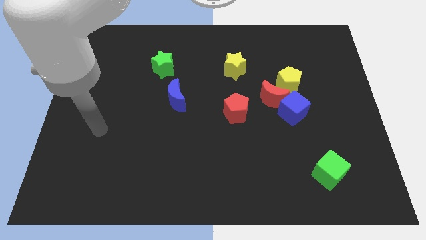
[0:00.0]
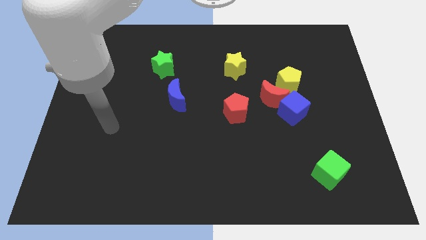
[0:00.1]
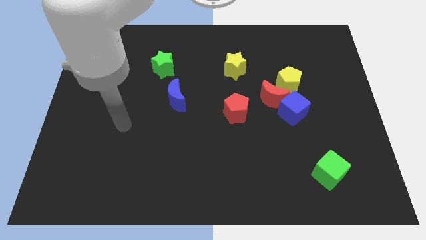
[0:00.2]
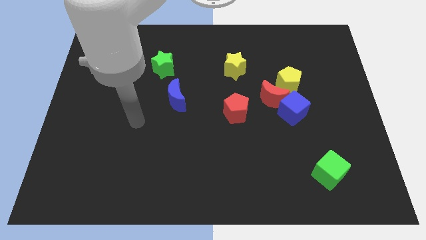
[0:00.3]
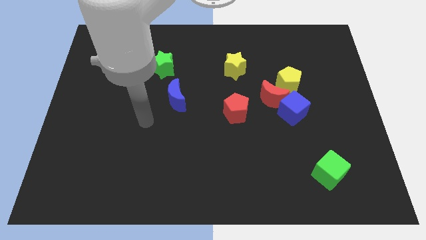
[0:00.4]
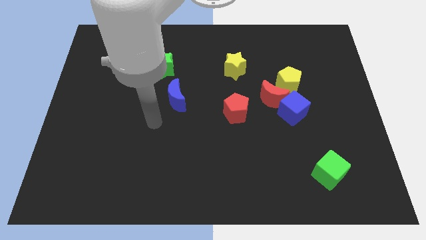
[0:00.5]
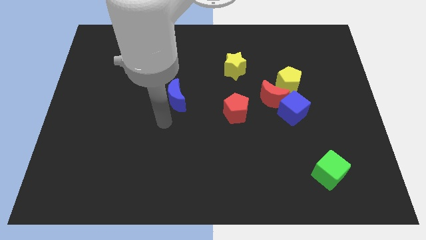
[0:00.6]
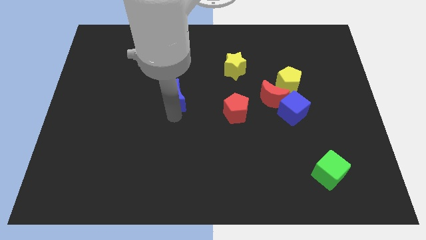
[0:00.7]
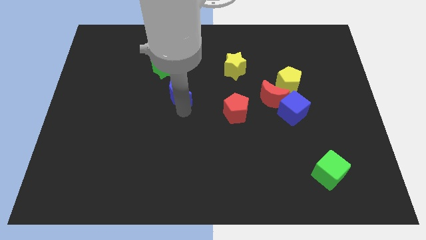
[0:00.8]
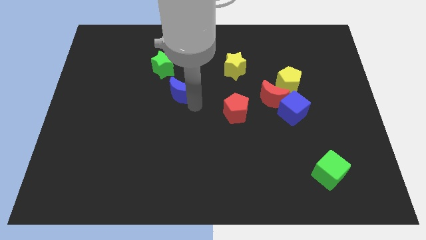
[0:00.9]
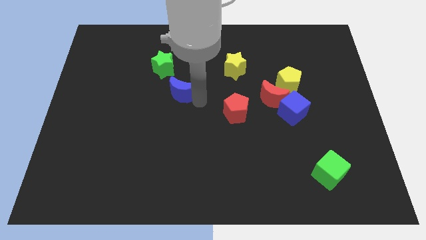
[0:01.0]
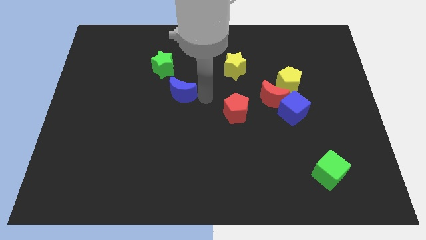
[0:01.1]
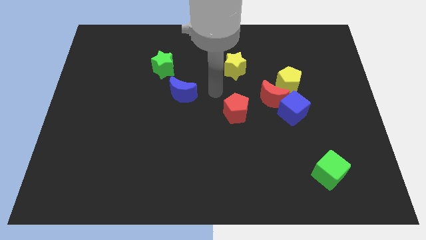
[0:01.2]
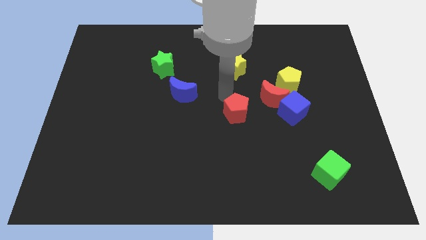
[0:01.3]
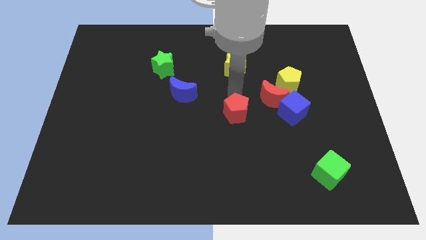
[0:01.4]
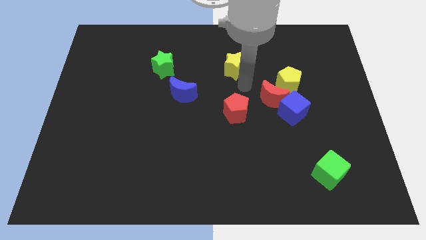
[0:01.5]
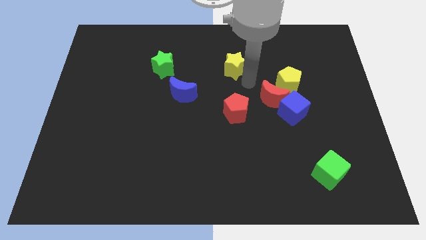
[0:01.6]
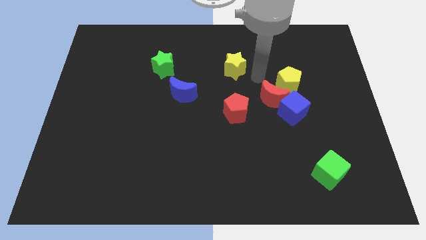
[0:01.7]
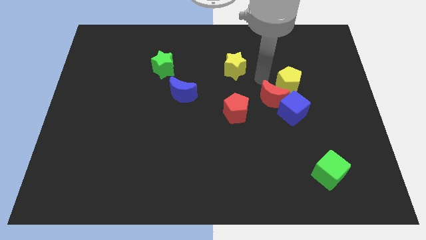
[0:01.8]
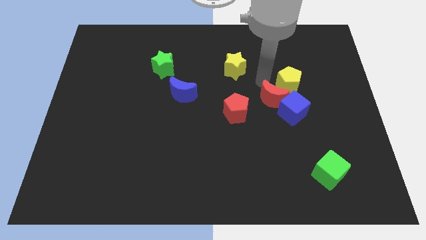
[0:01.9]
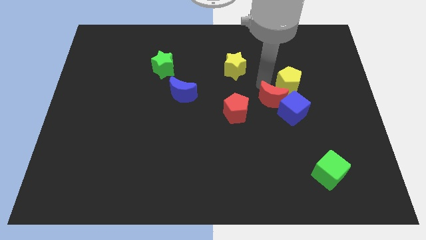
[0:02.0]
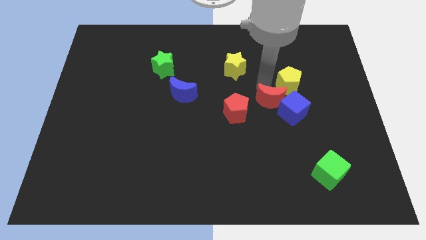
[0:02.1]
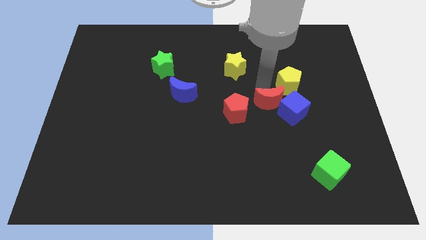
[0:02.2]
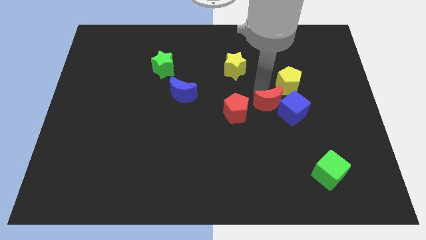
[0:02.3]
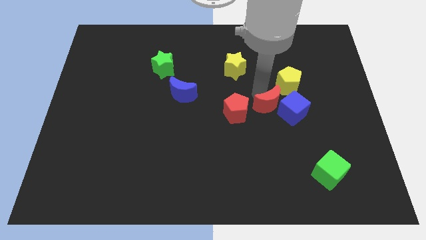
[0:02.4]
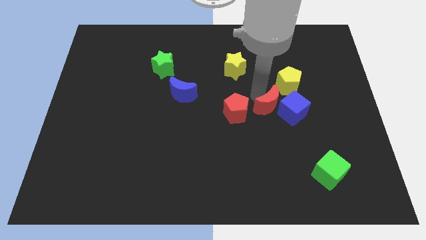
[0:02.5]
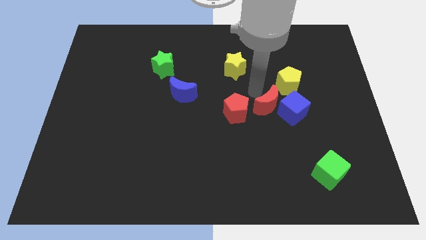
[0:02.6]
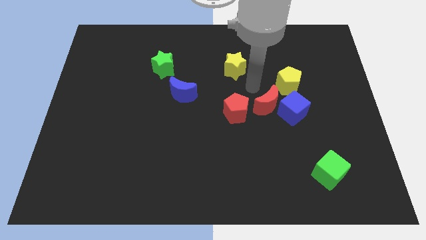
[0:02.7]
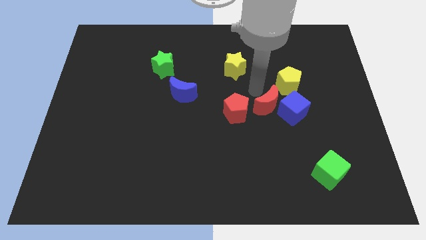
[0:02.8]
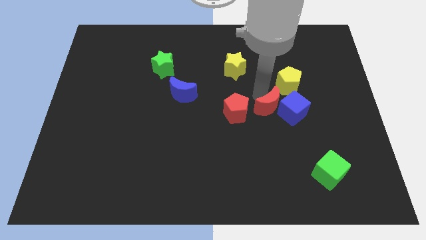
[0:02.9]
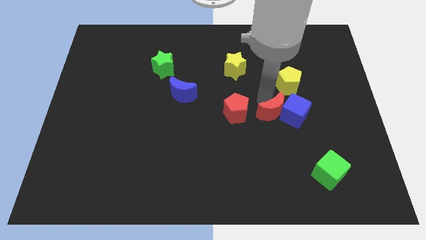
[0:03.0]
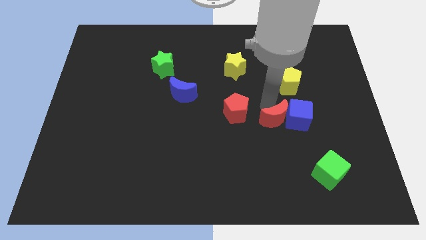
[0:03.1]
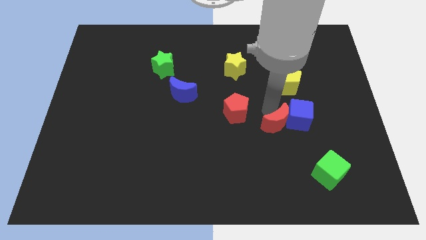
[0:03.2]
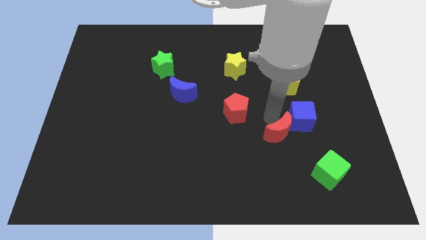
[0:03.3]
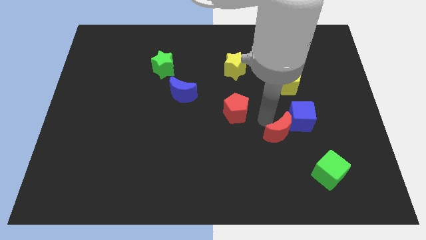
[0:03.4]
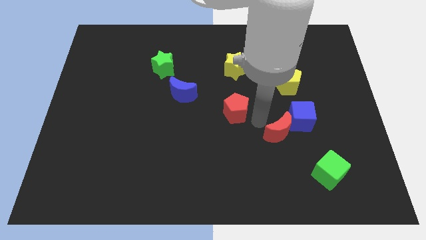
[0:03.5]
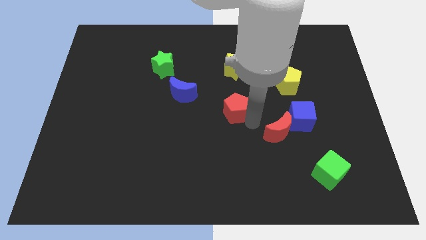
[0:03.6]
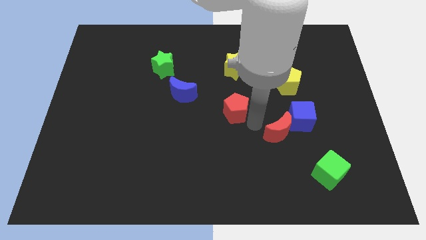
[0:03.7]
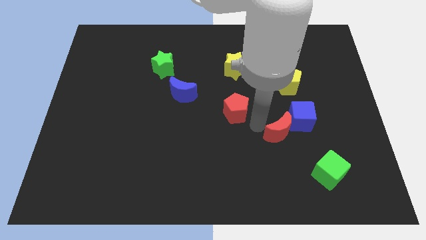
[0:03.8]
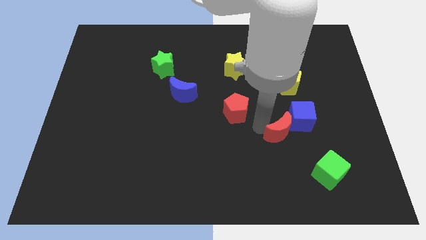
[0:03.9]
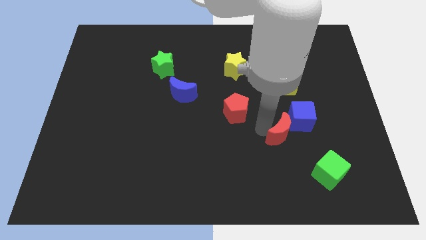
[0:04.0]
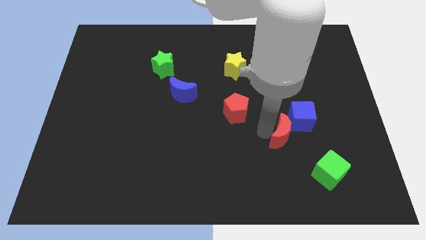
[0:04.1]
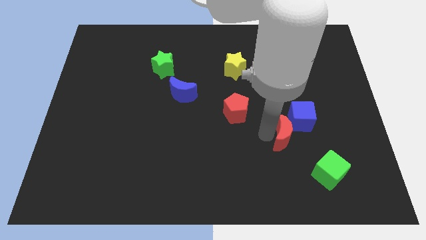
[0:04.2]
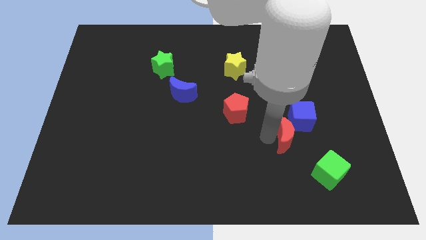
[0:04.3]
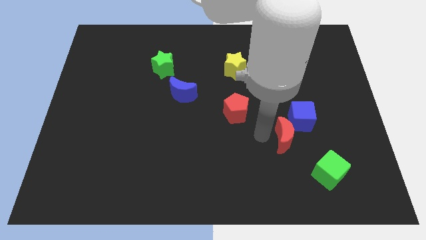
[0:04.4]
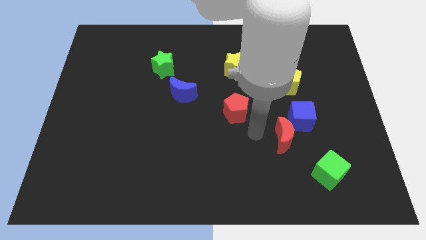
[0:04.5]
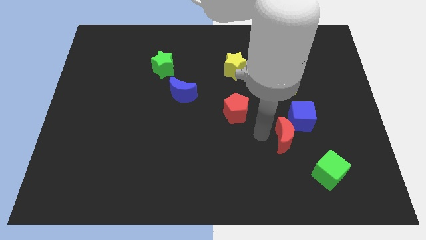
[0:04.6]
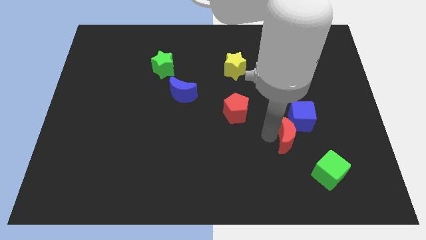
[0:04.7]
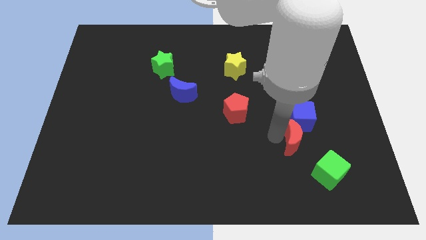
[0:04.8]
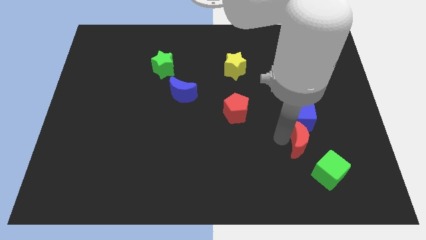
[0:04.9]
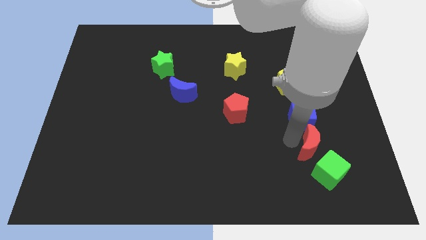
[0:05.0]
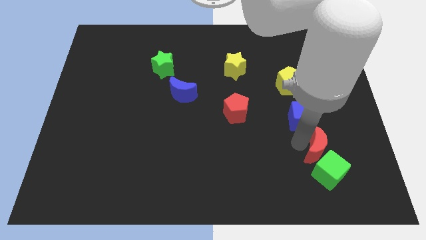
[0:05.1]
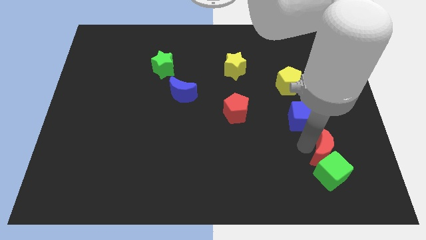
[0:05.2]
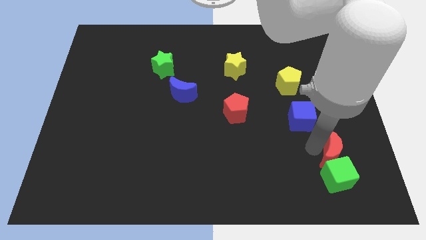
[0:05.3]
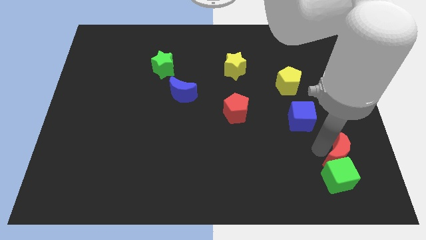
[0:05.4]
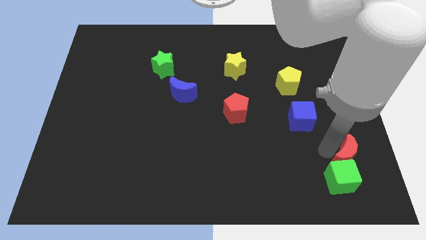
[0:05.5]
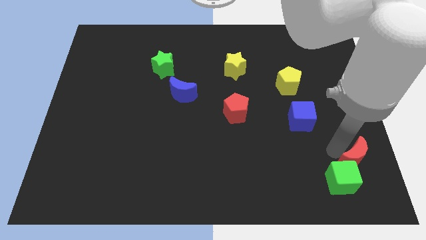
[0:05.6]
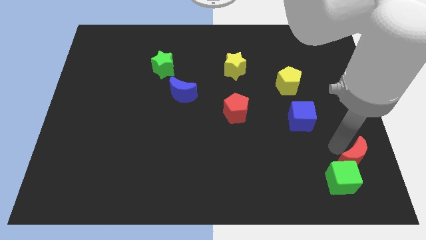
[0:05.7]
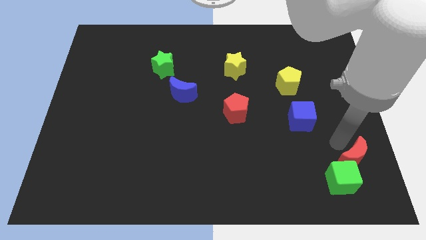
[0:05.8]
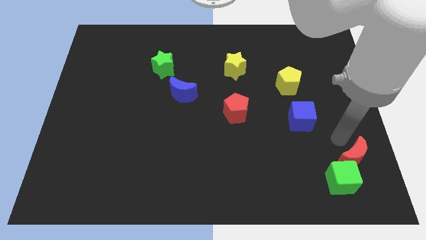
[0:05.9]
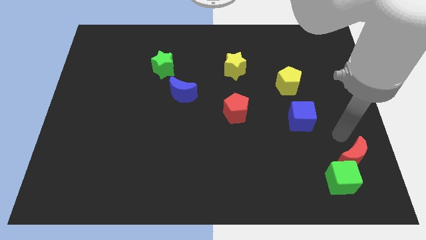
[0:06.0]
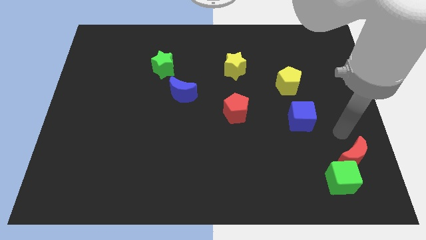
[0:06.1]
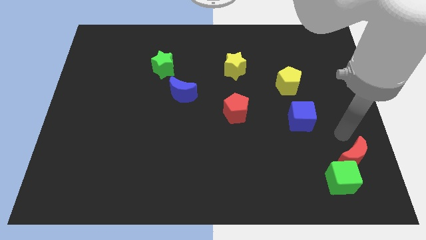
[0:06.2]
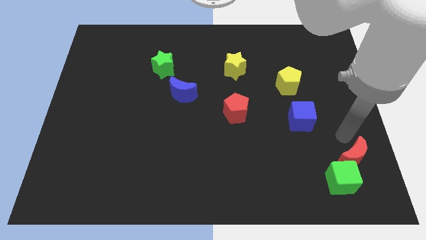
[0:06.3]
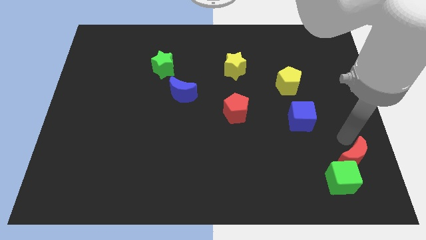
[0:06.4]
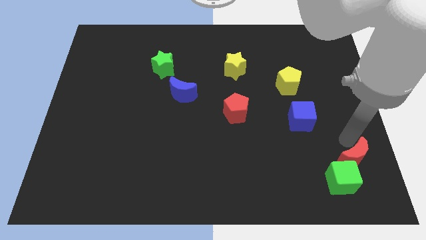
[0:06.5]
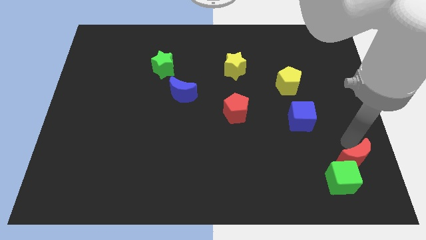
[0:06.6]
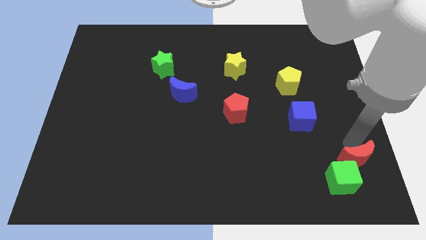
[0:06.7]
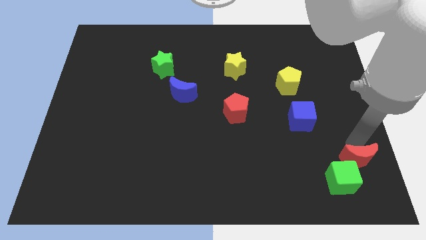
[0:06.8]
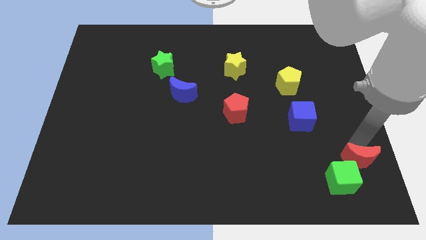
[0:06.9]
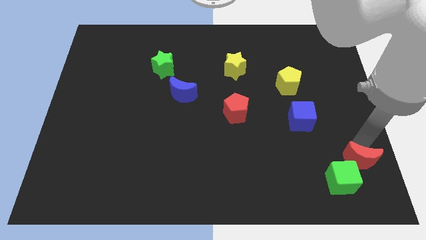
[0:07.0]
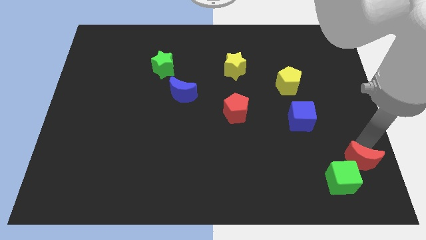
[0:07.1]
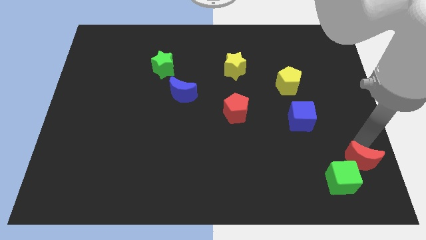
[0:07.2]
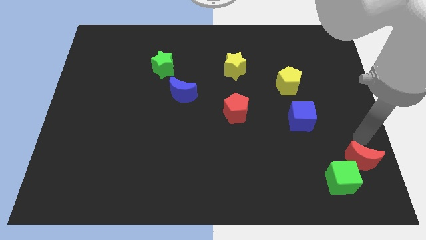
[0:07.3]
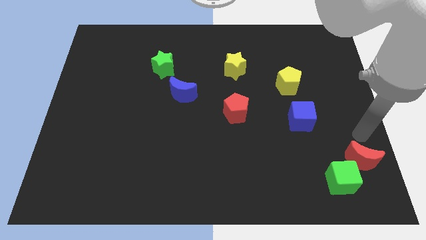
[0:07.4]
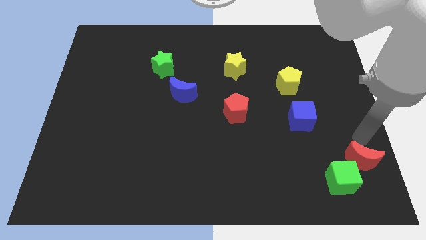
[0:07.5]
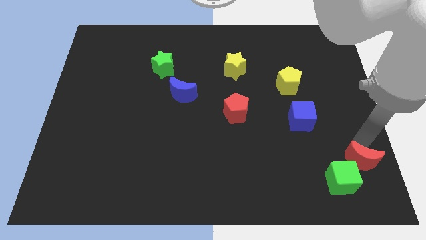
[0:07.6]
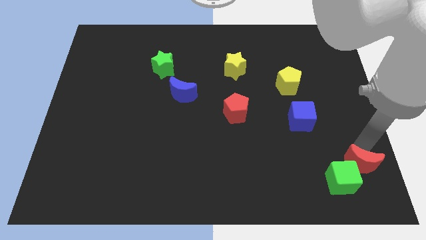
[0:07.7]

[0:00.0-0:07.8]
put the red moon to the lower right corner

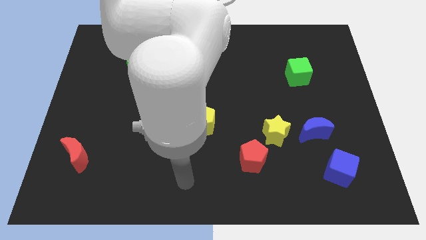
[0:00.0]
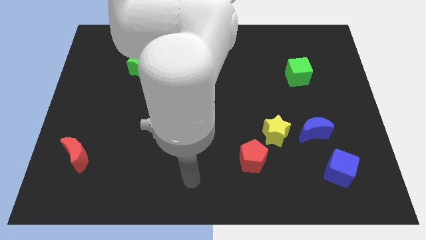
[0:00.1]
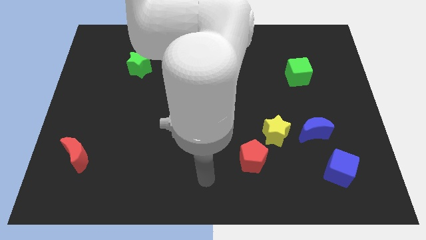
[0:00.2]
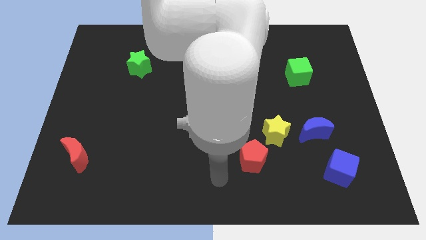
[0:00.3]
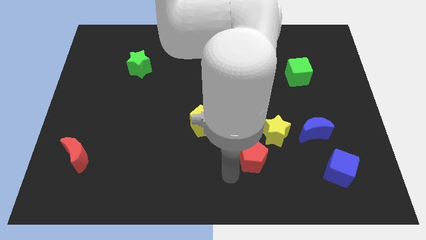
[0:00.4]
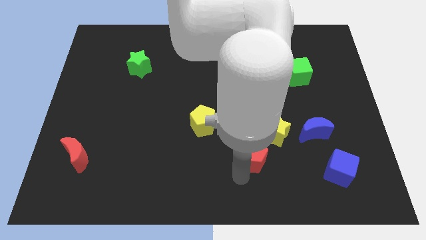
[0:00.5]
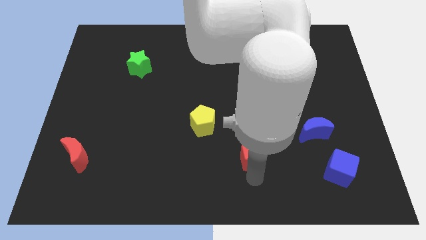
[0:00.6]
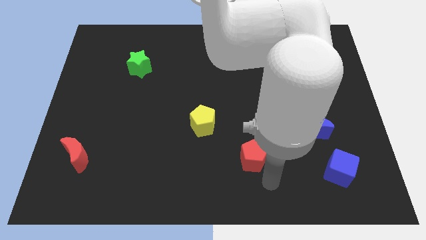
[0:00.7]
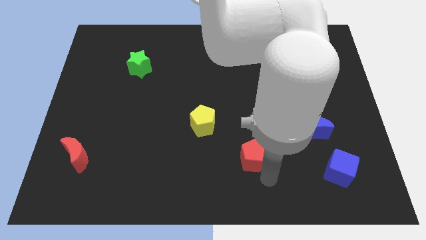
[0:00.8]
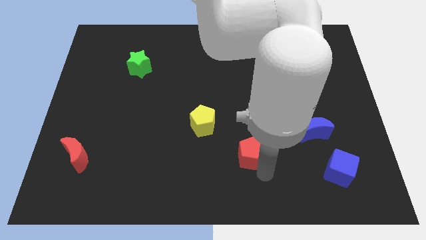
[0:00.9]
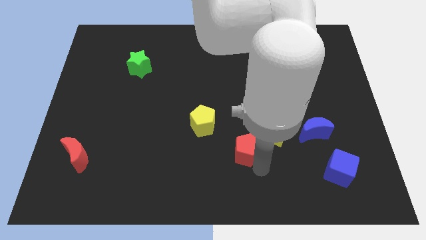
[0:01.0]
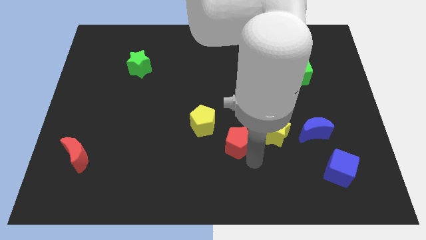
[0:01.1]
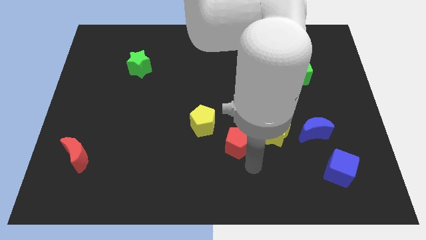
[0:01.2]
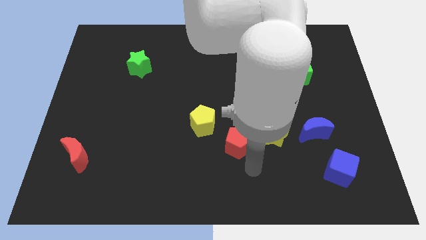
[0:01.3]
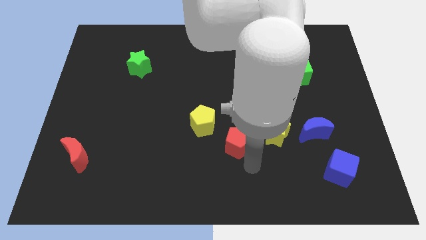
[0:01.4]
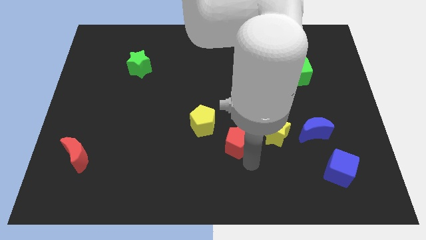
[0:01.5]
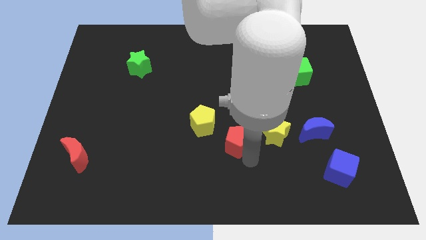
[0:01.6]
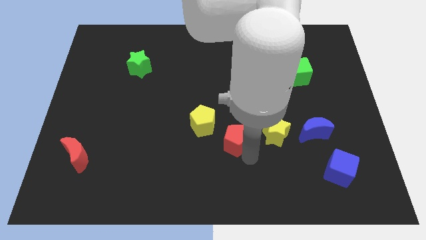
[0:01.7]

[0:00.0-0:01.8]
push the red pentagon to the middle of the board
